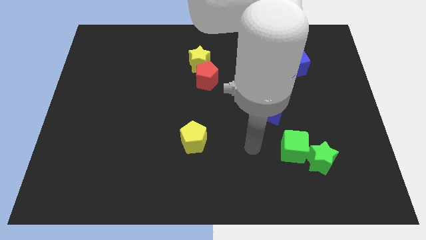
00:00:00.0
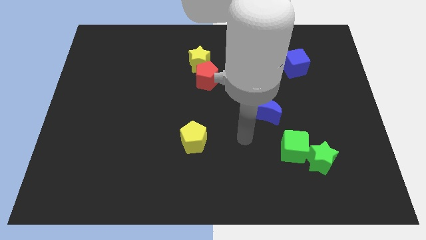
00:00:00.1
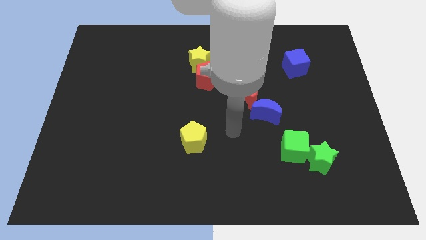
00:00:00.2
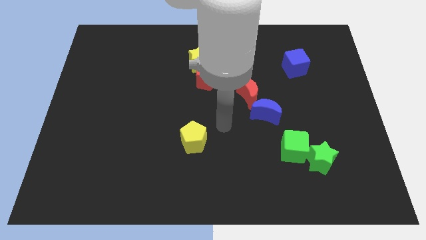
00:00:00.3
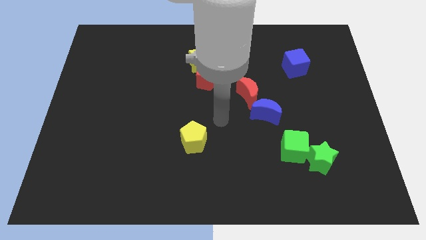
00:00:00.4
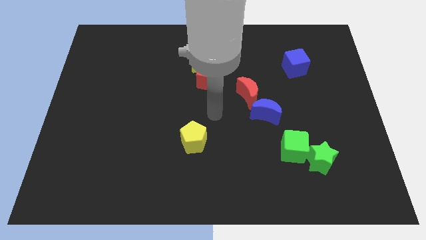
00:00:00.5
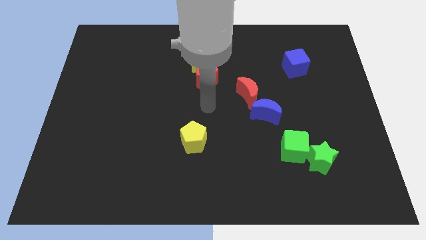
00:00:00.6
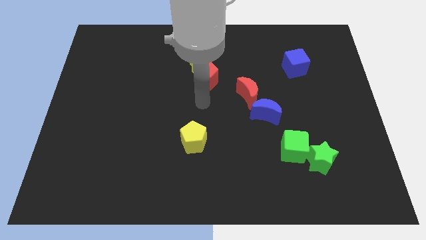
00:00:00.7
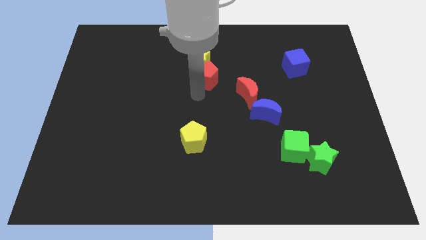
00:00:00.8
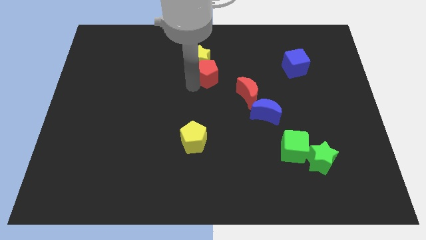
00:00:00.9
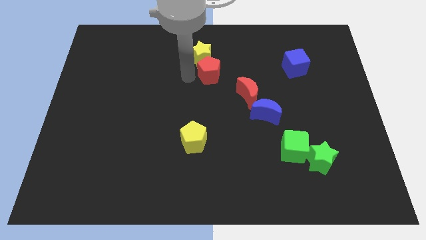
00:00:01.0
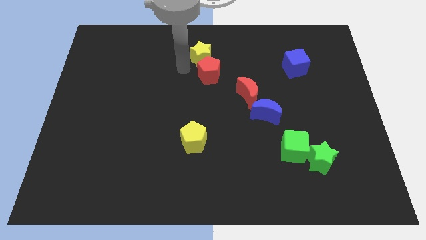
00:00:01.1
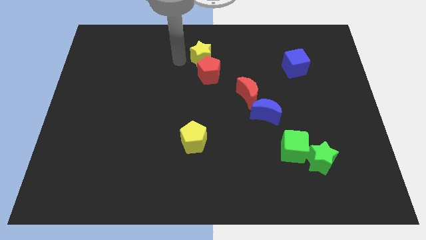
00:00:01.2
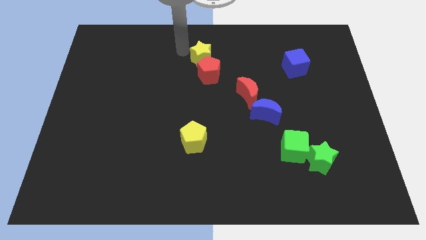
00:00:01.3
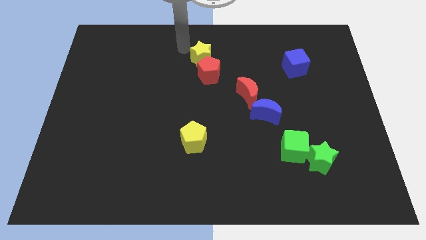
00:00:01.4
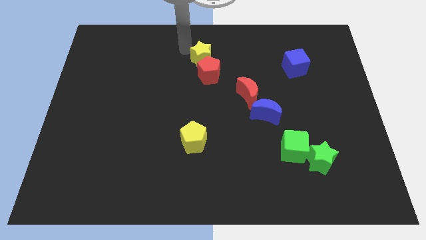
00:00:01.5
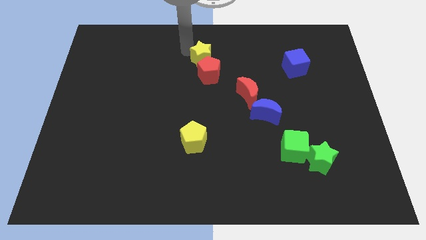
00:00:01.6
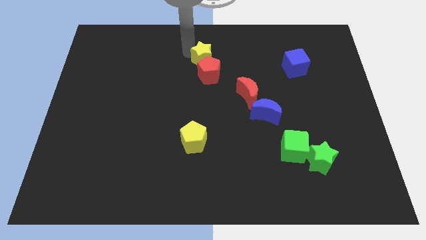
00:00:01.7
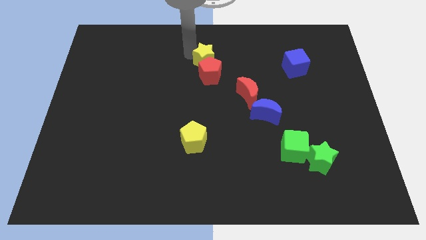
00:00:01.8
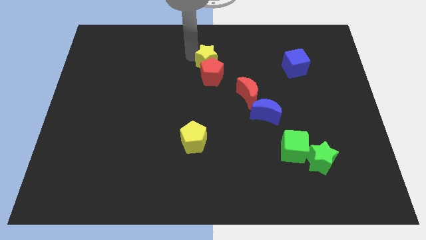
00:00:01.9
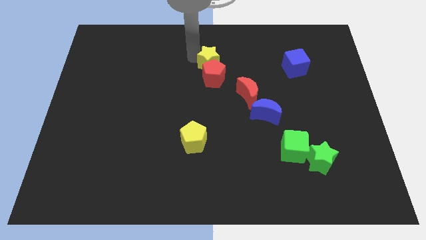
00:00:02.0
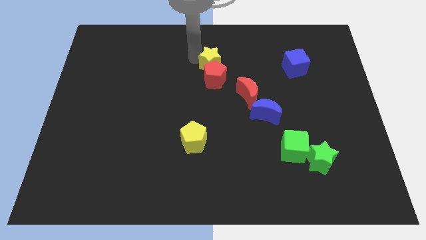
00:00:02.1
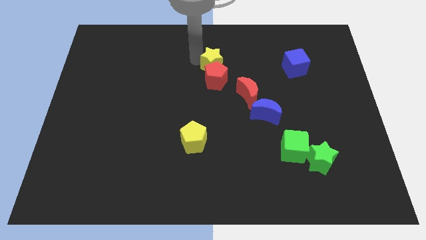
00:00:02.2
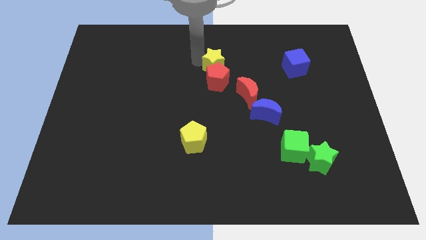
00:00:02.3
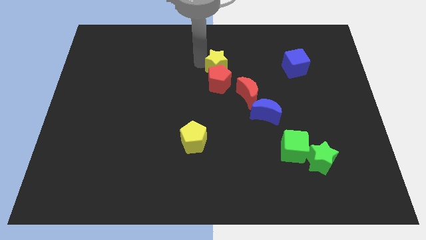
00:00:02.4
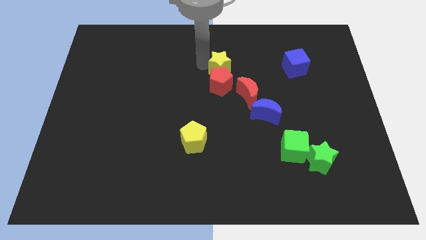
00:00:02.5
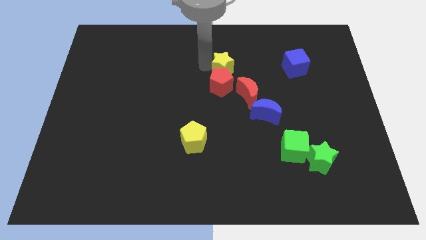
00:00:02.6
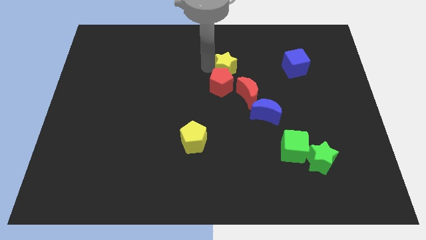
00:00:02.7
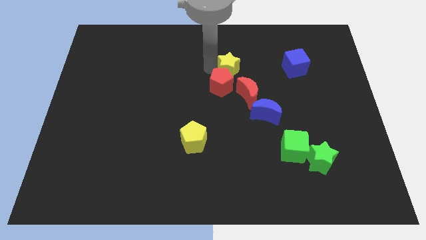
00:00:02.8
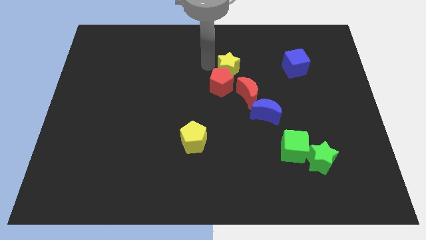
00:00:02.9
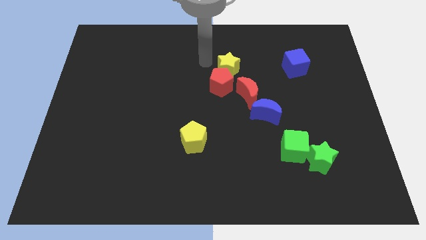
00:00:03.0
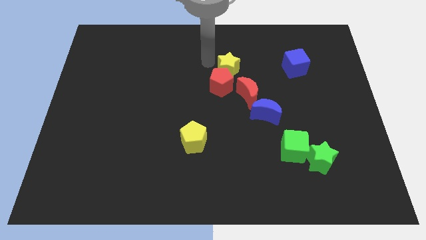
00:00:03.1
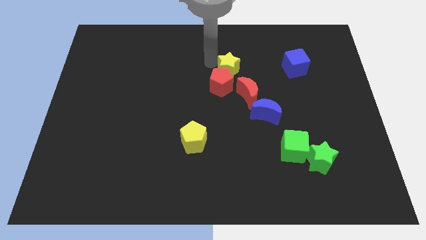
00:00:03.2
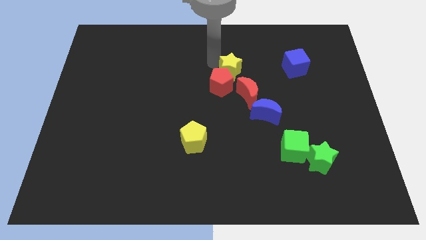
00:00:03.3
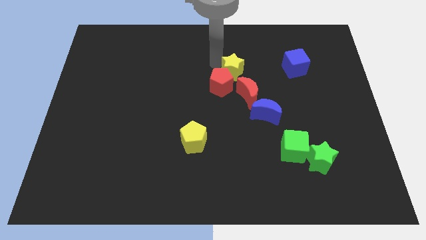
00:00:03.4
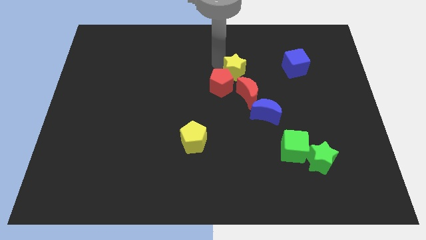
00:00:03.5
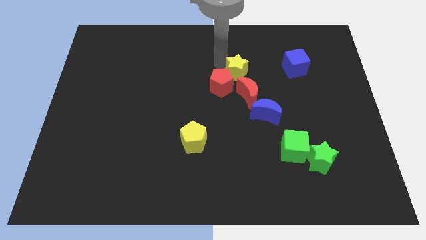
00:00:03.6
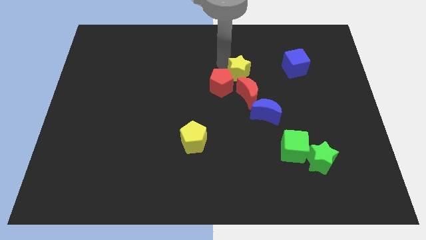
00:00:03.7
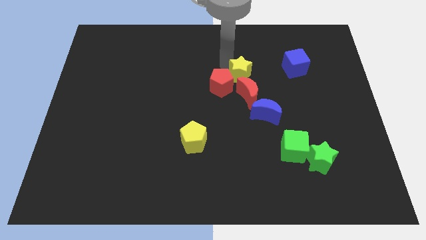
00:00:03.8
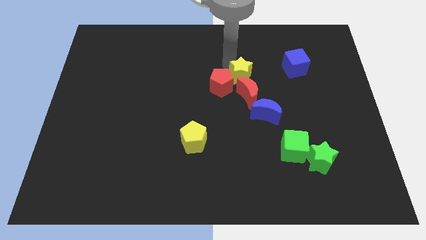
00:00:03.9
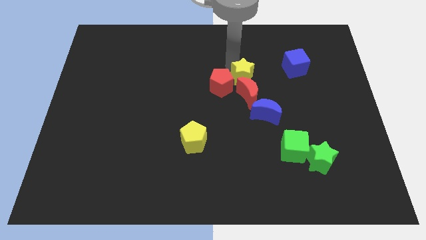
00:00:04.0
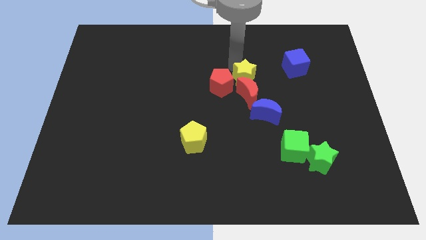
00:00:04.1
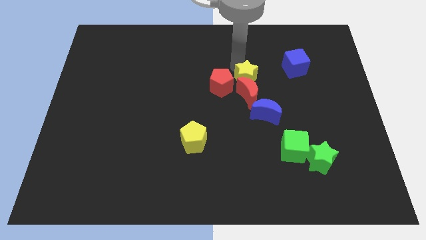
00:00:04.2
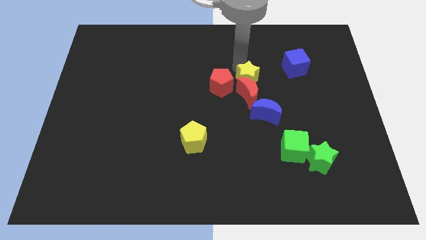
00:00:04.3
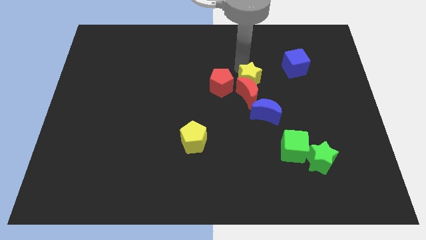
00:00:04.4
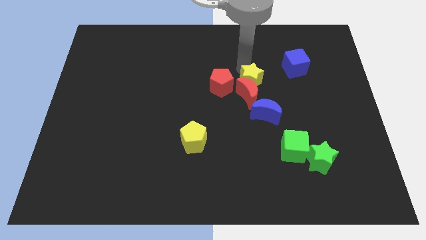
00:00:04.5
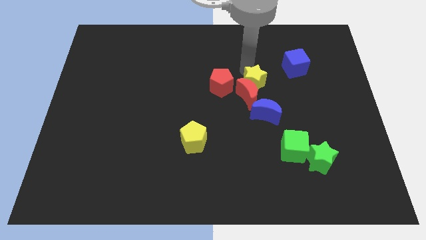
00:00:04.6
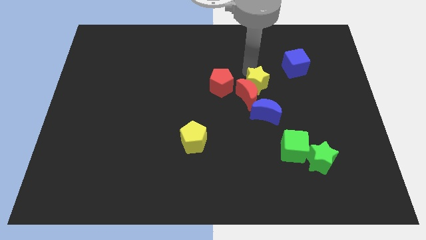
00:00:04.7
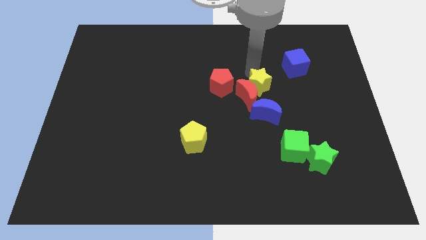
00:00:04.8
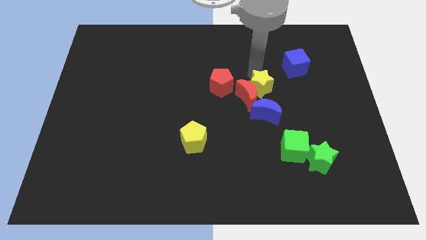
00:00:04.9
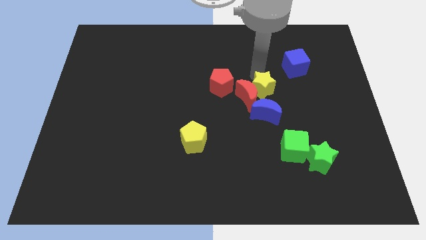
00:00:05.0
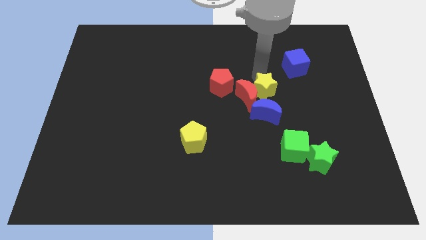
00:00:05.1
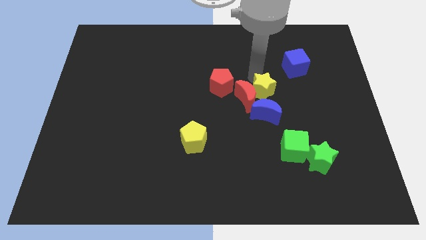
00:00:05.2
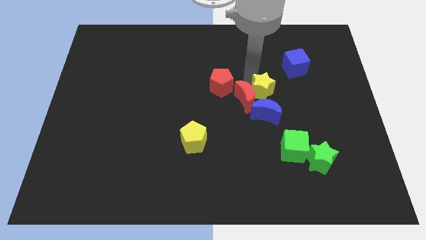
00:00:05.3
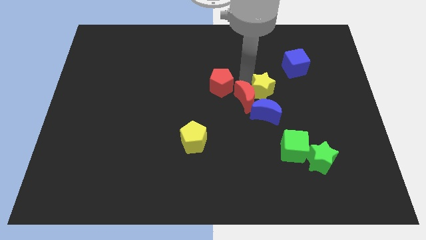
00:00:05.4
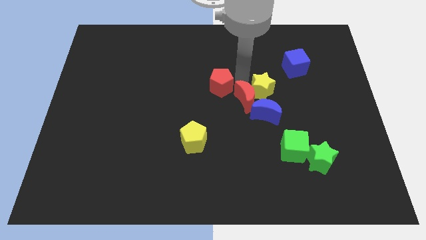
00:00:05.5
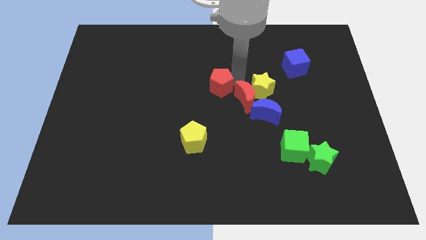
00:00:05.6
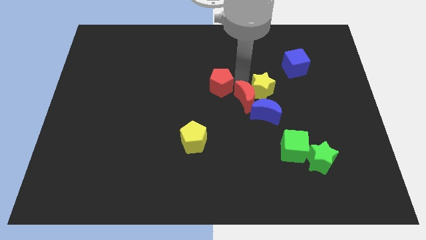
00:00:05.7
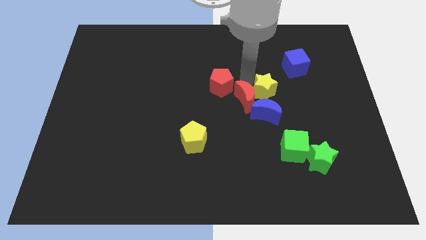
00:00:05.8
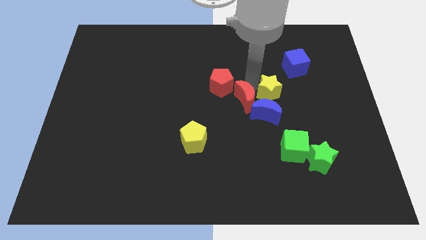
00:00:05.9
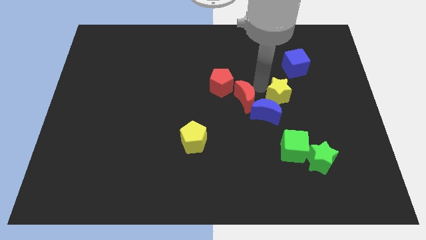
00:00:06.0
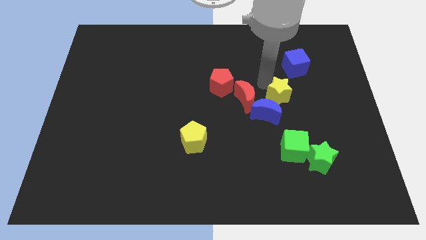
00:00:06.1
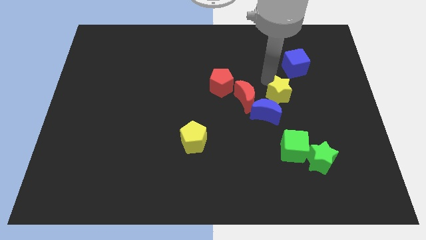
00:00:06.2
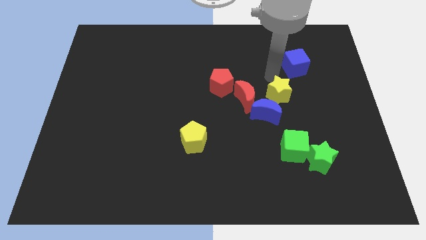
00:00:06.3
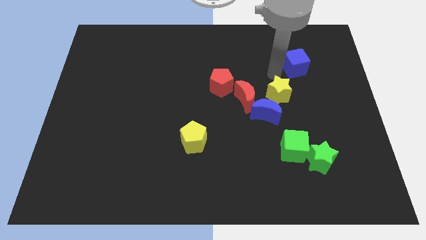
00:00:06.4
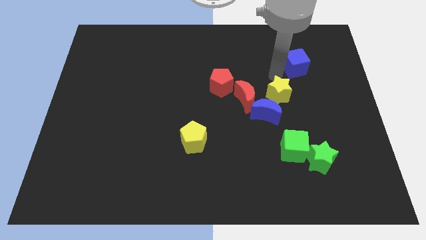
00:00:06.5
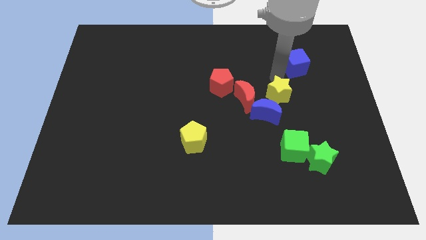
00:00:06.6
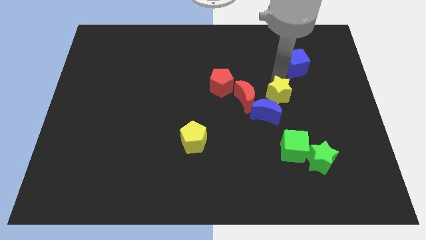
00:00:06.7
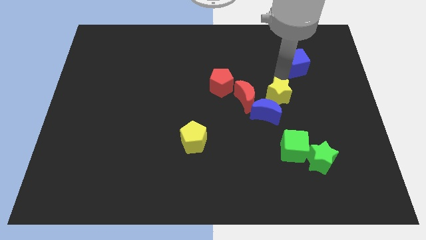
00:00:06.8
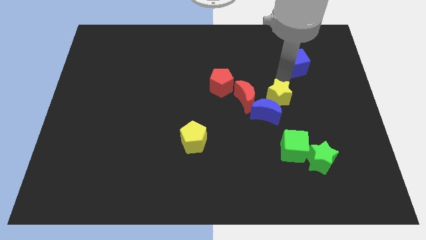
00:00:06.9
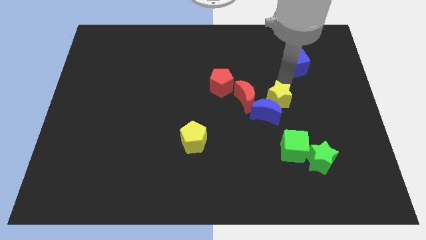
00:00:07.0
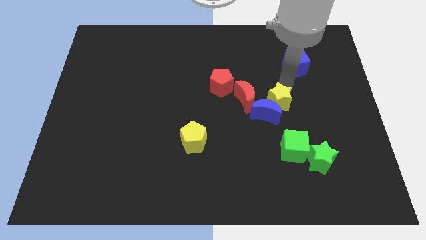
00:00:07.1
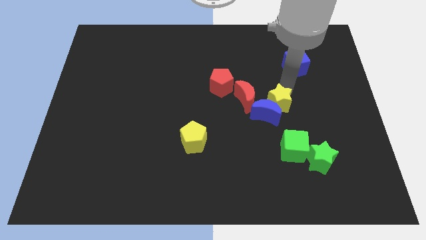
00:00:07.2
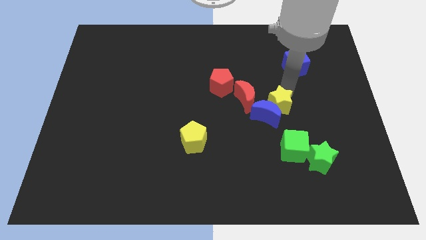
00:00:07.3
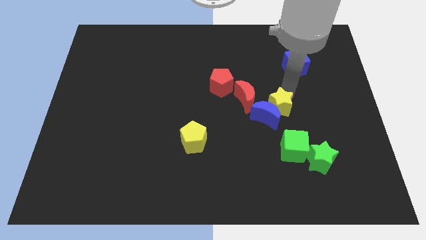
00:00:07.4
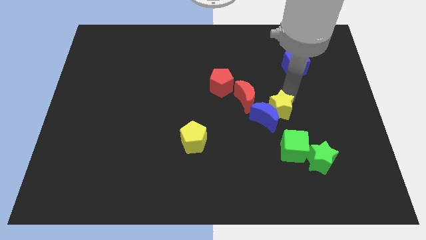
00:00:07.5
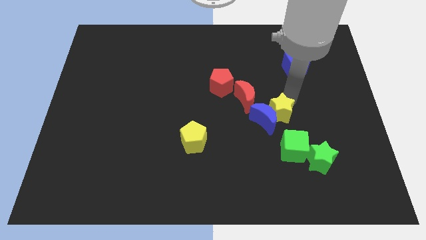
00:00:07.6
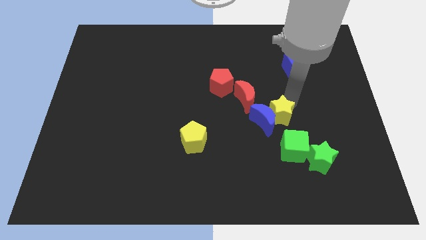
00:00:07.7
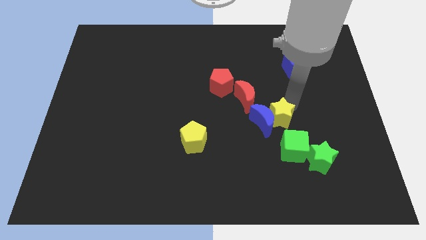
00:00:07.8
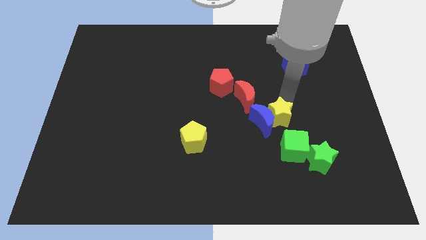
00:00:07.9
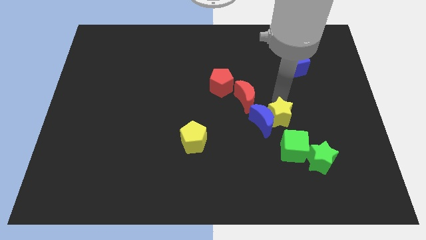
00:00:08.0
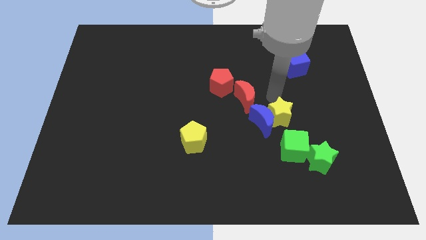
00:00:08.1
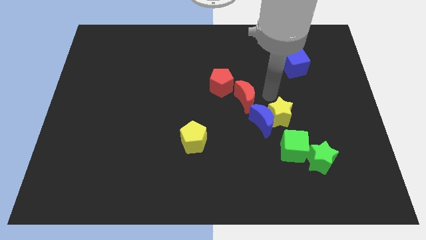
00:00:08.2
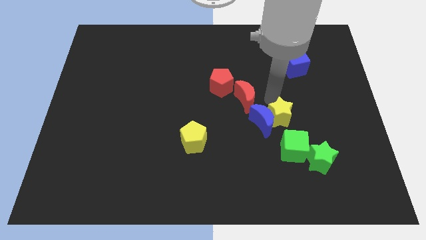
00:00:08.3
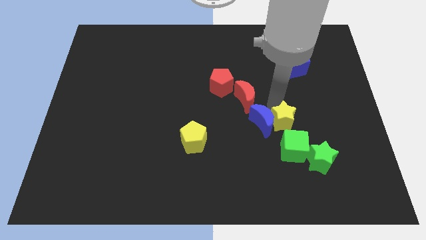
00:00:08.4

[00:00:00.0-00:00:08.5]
slide the yellow star to the top left side of the green star

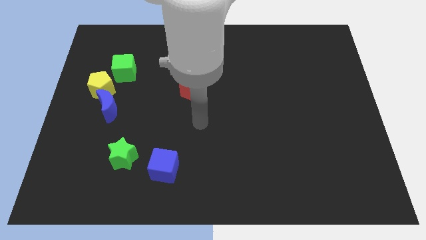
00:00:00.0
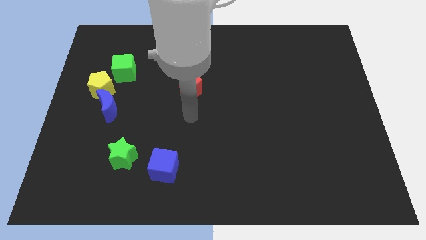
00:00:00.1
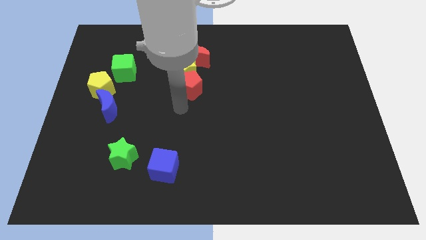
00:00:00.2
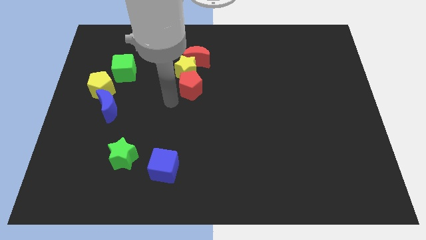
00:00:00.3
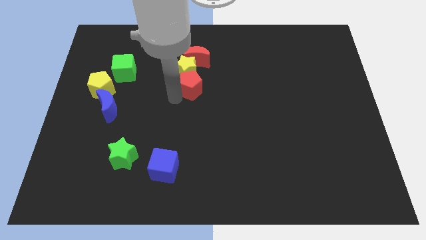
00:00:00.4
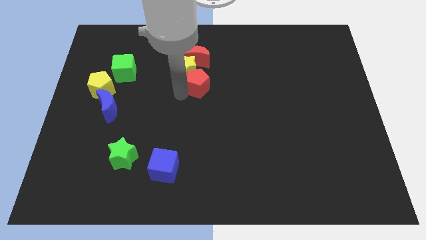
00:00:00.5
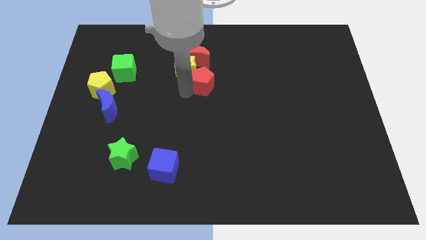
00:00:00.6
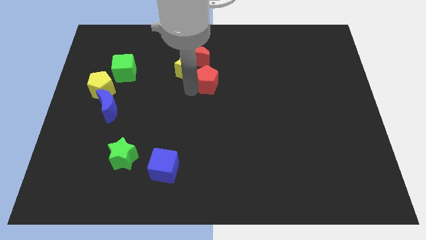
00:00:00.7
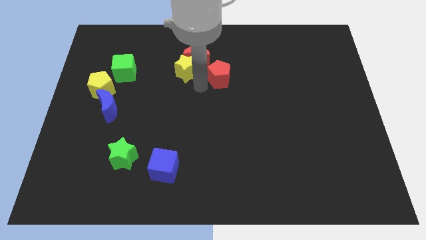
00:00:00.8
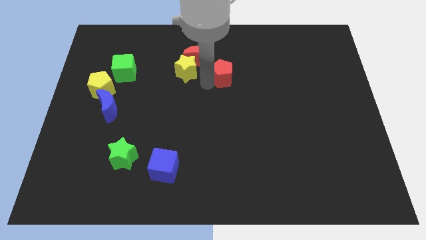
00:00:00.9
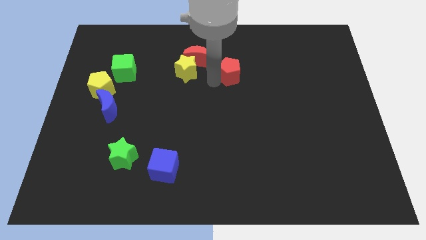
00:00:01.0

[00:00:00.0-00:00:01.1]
slide the red pentagon to the right side of the red moon
